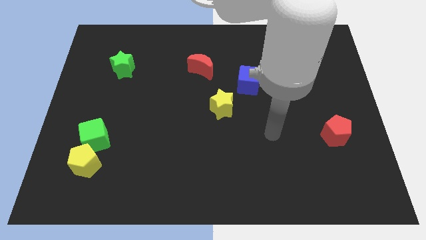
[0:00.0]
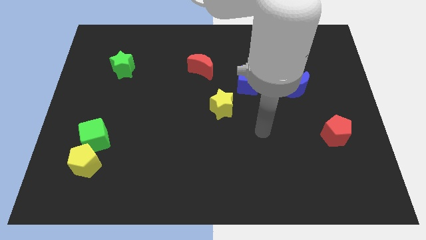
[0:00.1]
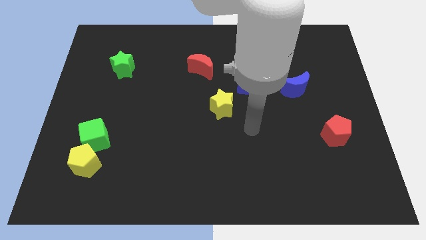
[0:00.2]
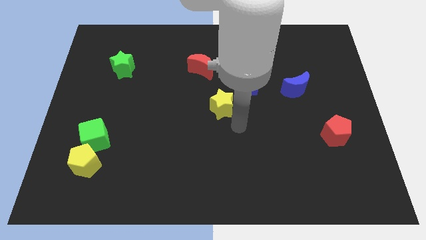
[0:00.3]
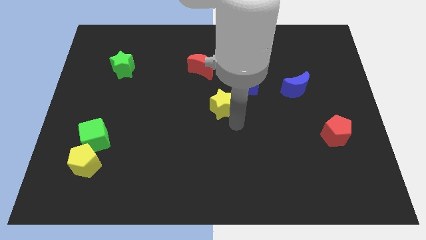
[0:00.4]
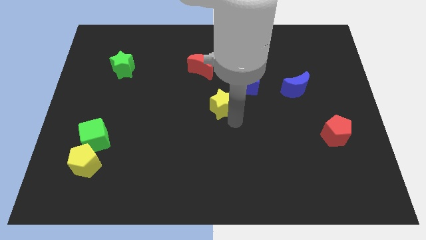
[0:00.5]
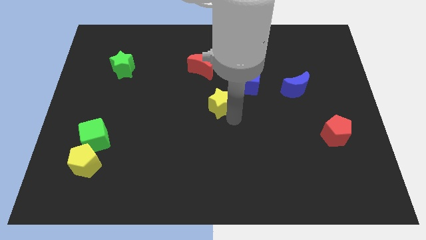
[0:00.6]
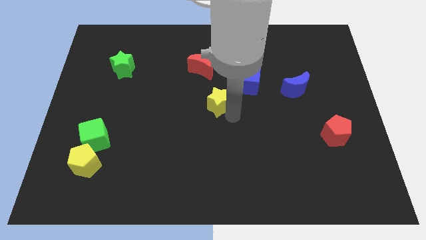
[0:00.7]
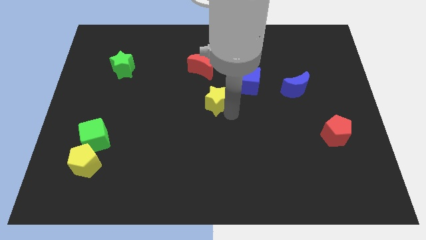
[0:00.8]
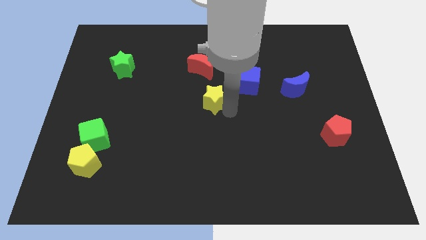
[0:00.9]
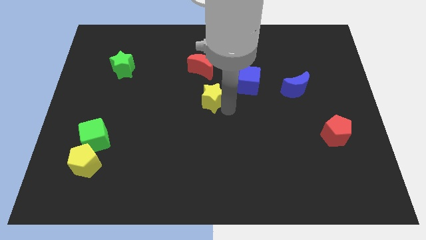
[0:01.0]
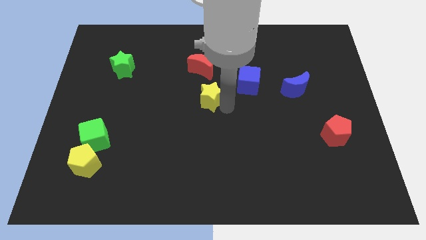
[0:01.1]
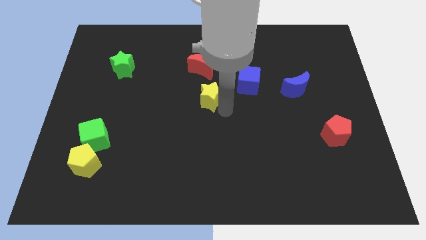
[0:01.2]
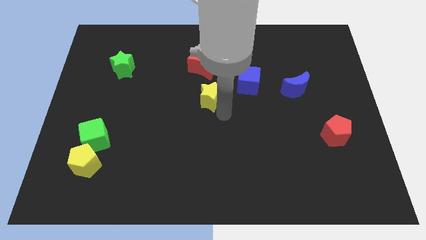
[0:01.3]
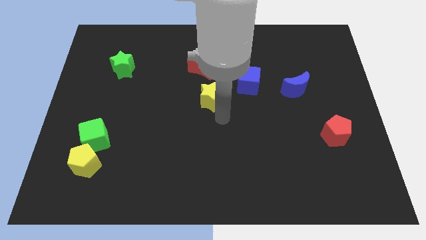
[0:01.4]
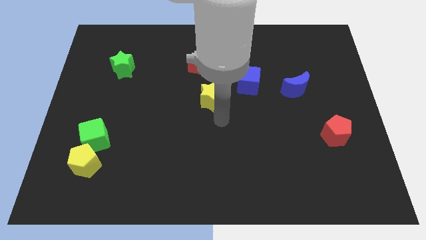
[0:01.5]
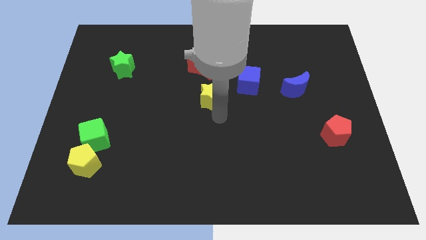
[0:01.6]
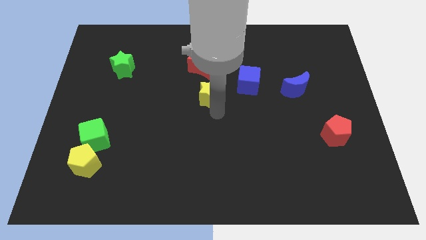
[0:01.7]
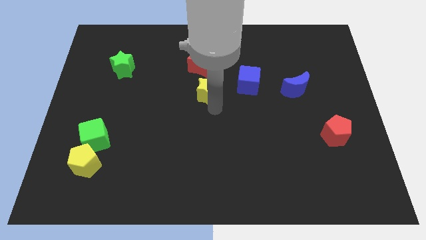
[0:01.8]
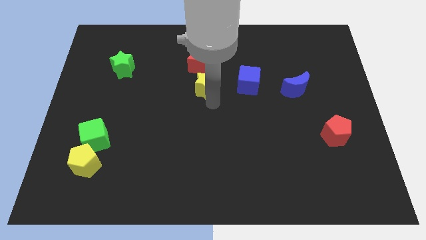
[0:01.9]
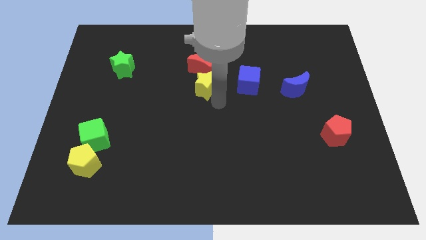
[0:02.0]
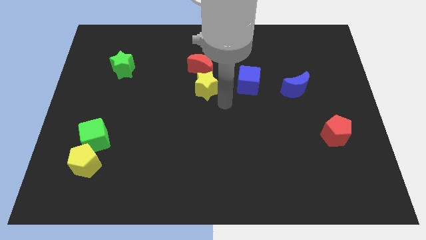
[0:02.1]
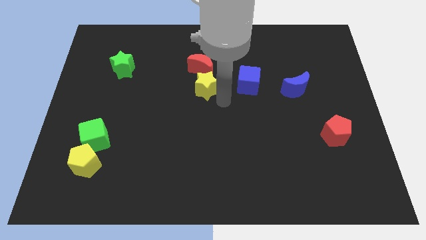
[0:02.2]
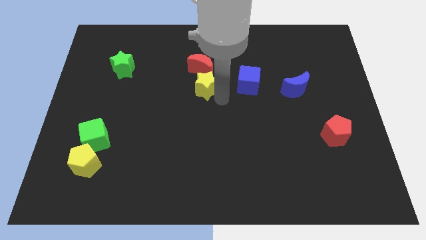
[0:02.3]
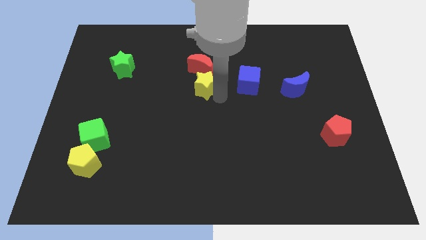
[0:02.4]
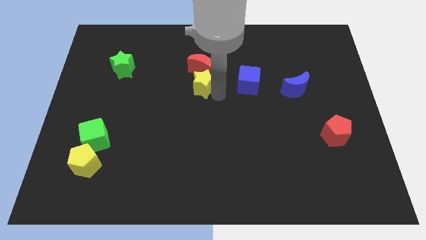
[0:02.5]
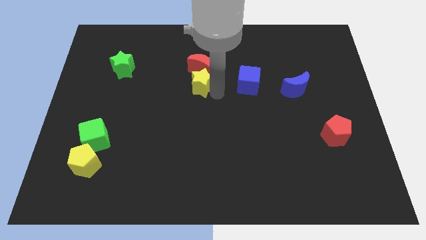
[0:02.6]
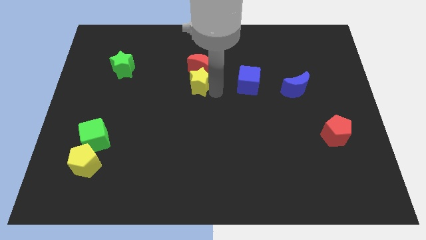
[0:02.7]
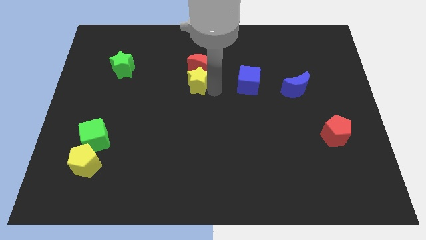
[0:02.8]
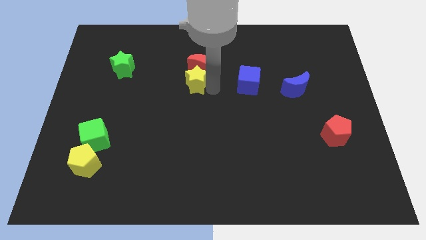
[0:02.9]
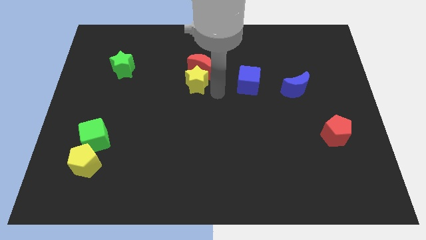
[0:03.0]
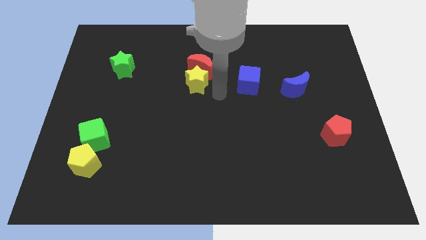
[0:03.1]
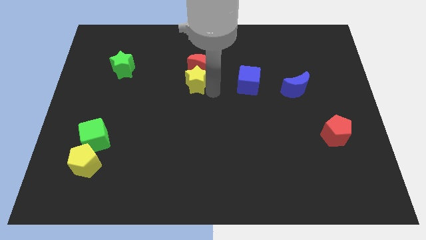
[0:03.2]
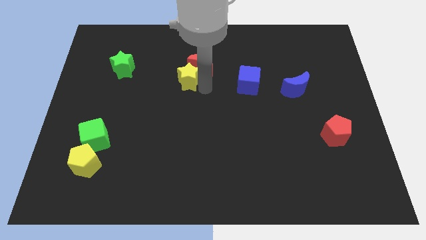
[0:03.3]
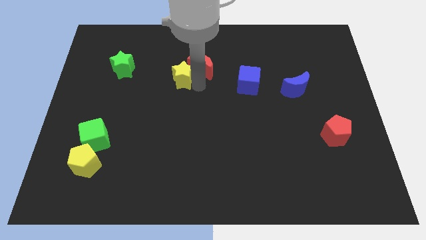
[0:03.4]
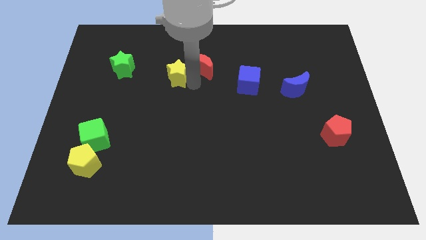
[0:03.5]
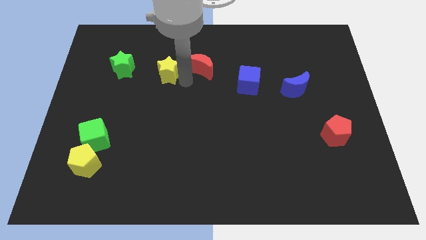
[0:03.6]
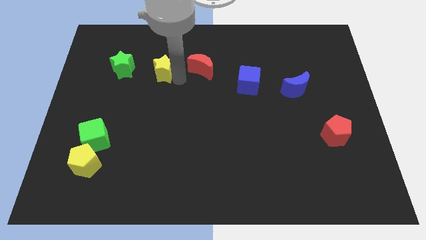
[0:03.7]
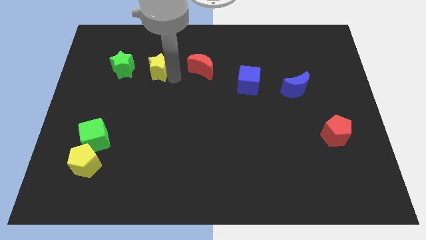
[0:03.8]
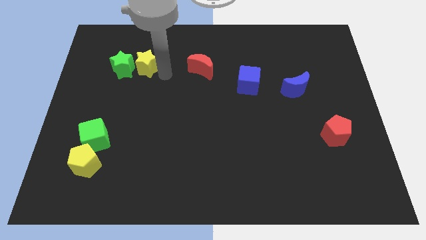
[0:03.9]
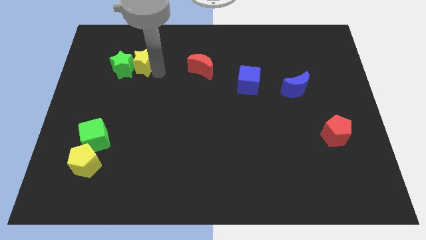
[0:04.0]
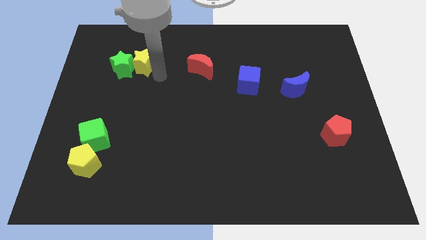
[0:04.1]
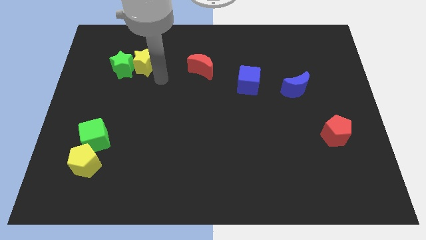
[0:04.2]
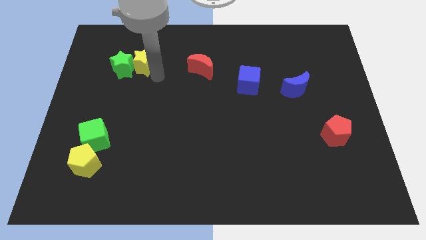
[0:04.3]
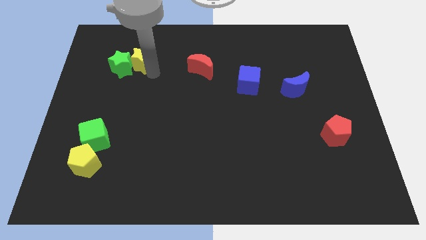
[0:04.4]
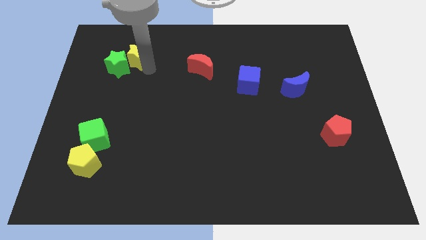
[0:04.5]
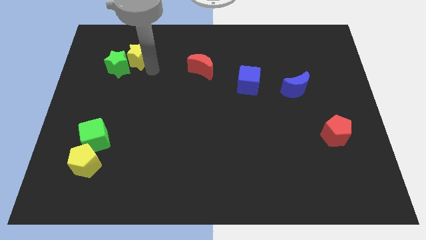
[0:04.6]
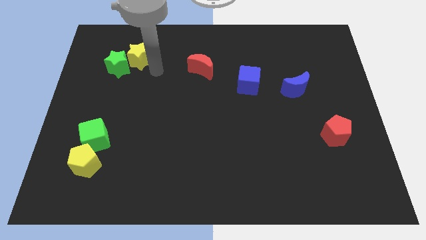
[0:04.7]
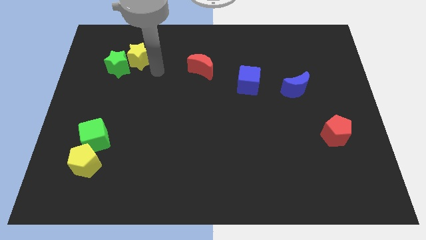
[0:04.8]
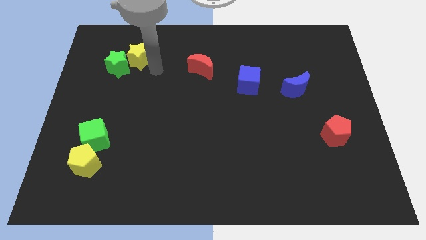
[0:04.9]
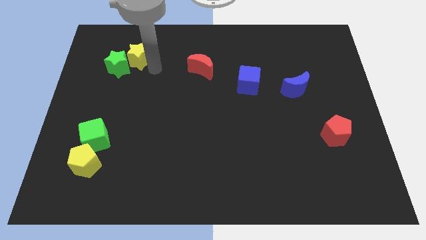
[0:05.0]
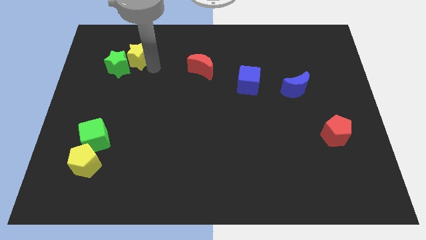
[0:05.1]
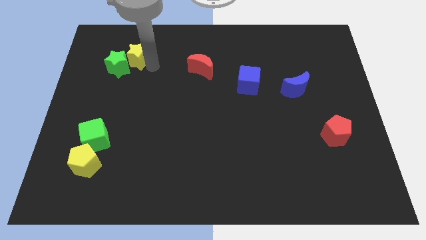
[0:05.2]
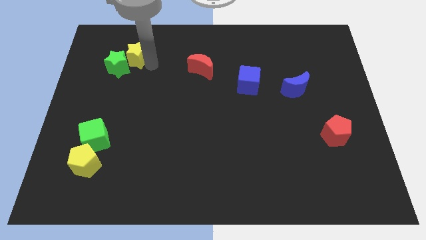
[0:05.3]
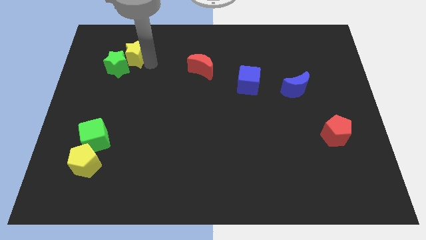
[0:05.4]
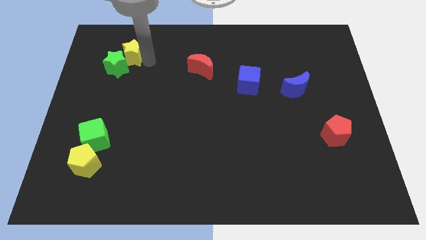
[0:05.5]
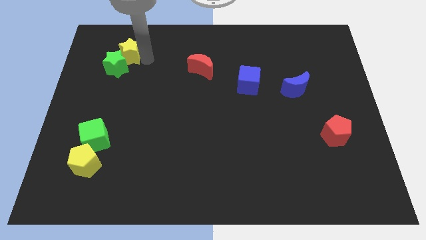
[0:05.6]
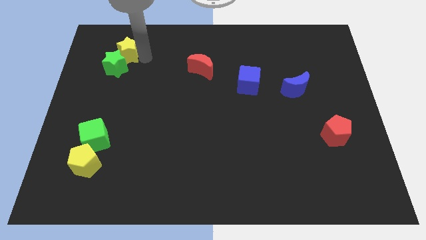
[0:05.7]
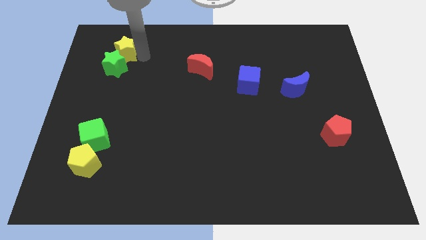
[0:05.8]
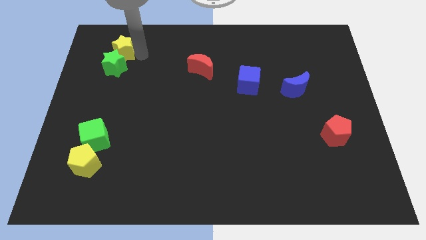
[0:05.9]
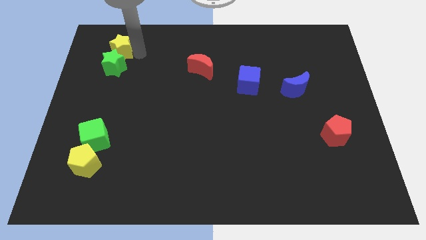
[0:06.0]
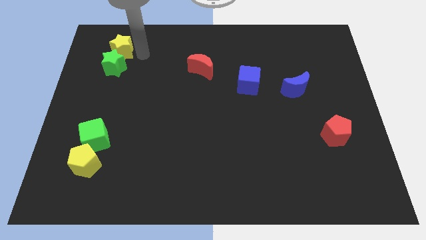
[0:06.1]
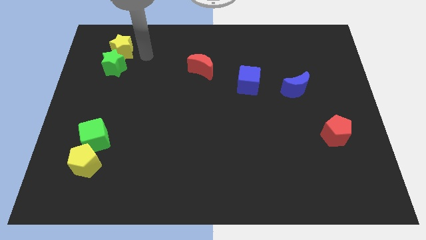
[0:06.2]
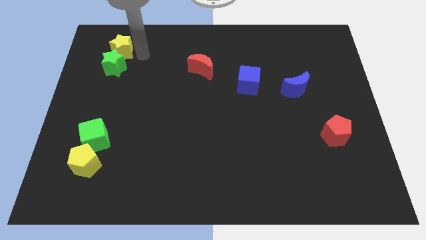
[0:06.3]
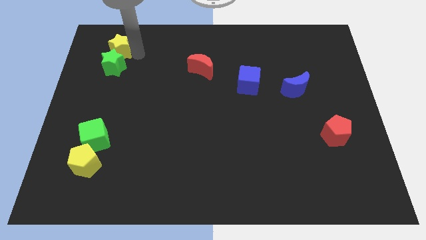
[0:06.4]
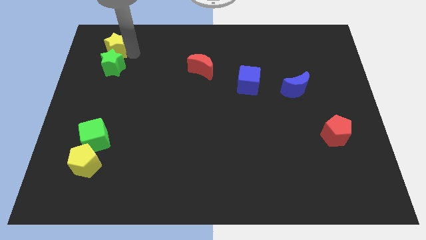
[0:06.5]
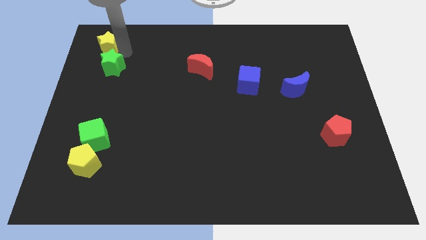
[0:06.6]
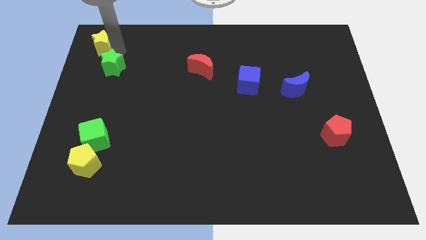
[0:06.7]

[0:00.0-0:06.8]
put the yellow star to the top left
